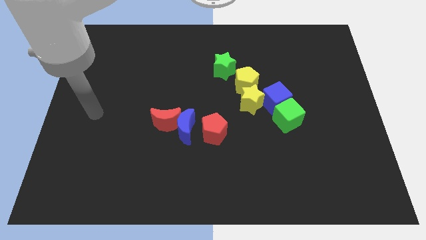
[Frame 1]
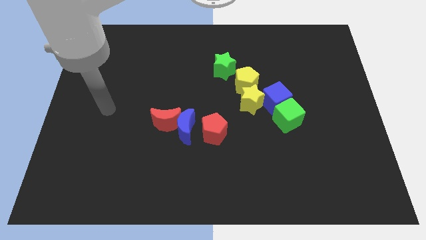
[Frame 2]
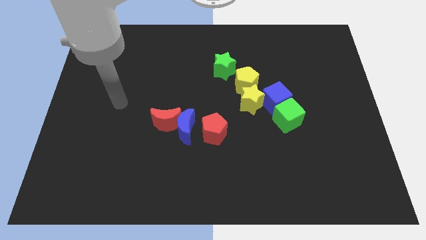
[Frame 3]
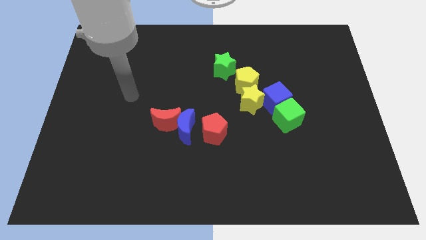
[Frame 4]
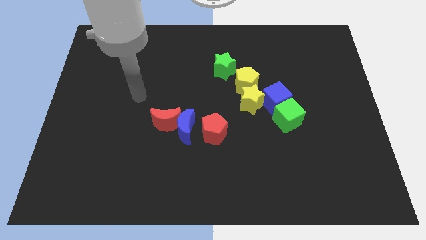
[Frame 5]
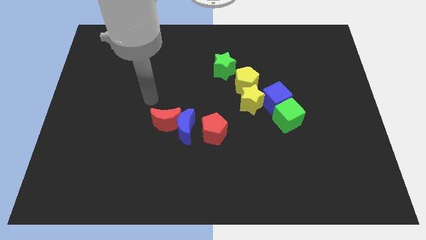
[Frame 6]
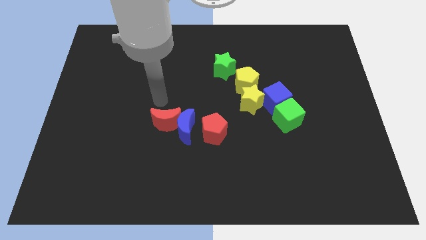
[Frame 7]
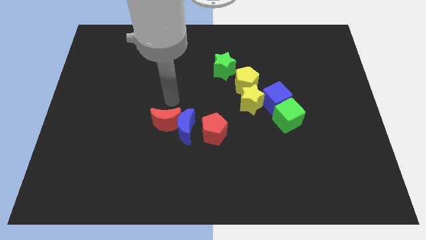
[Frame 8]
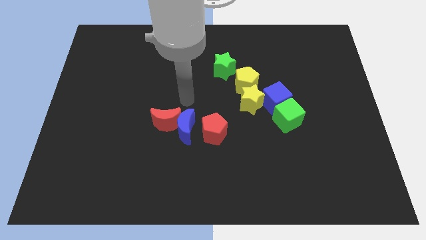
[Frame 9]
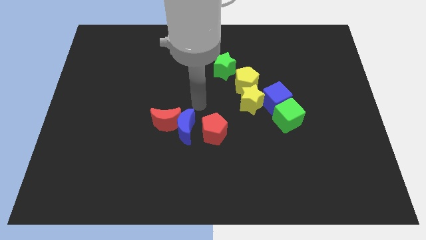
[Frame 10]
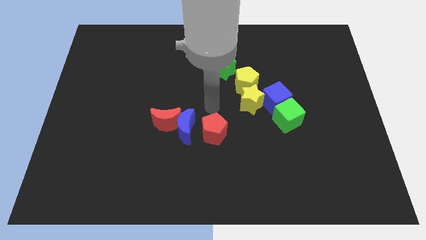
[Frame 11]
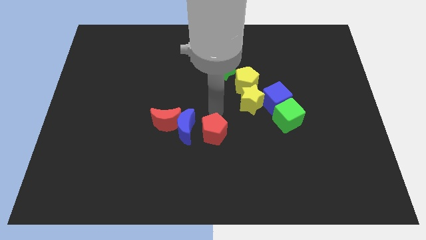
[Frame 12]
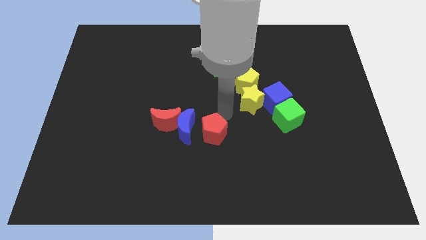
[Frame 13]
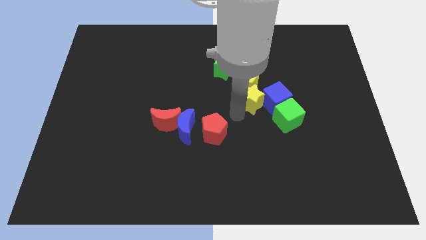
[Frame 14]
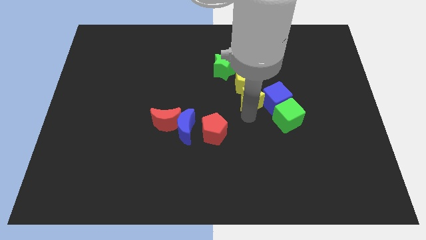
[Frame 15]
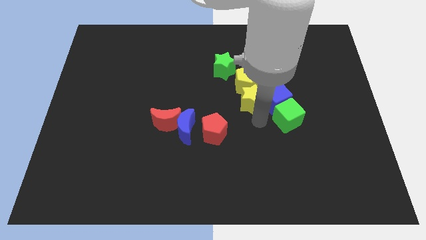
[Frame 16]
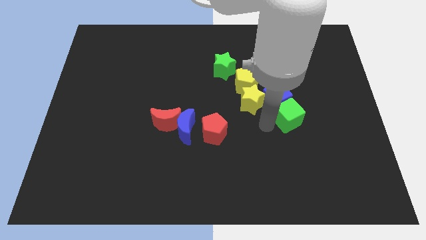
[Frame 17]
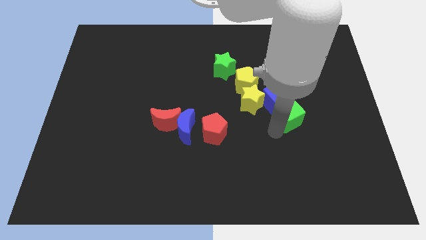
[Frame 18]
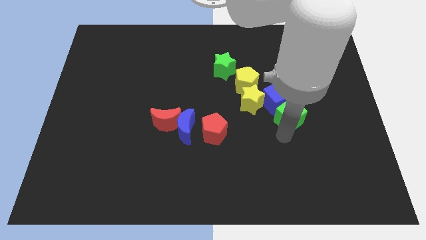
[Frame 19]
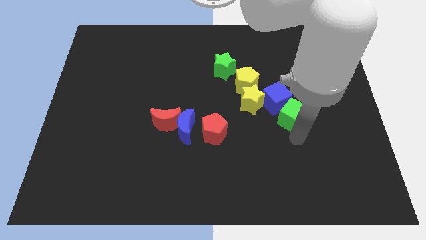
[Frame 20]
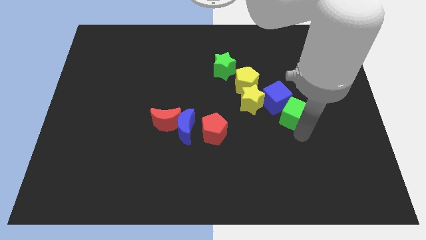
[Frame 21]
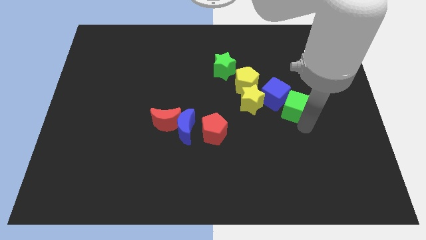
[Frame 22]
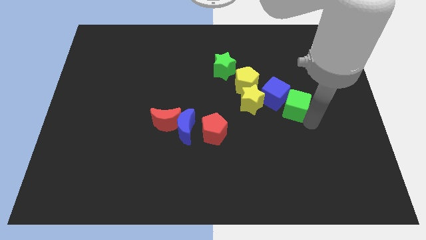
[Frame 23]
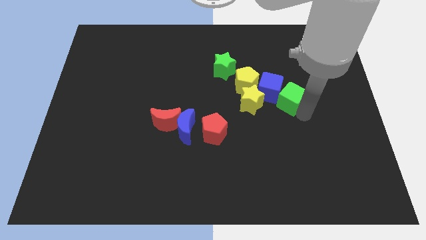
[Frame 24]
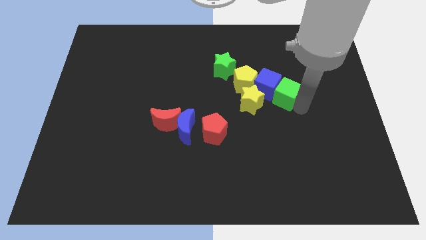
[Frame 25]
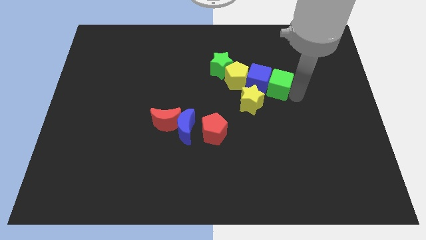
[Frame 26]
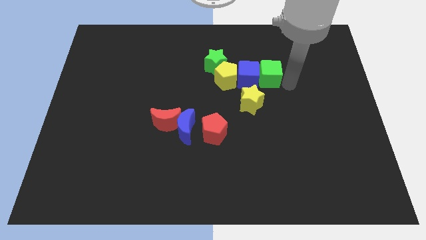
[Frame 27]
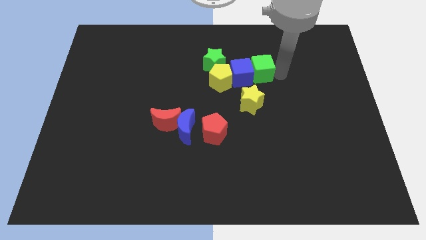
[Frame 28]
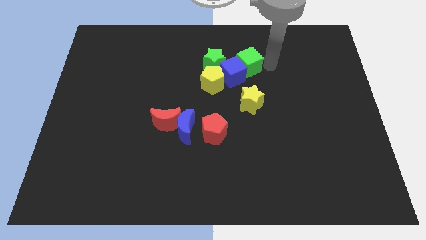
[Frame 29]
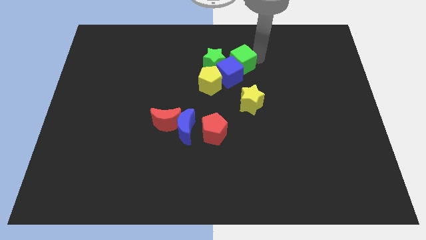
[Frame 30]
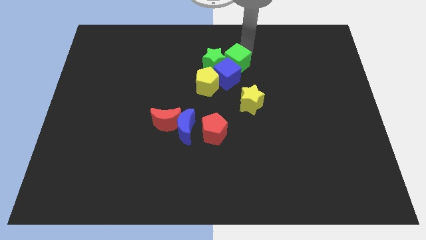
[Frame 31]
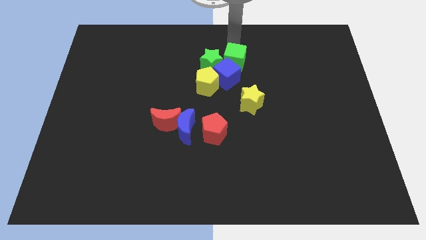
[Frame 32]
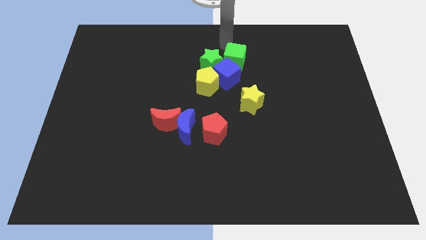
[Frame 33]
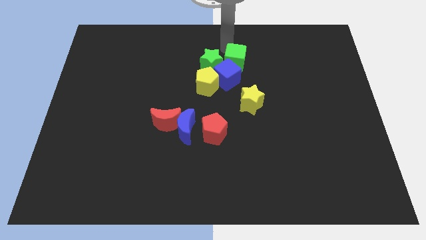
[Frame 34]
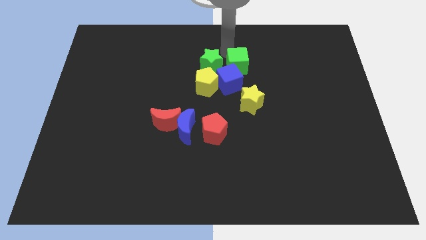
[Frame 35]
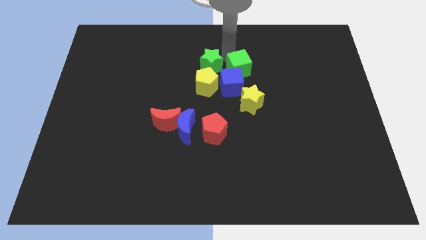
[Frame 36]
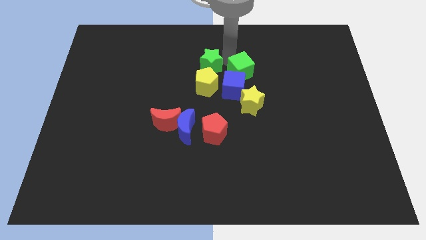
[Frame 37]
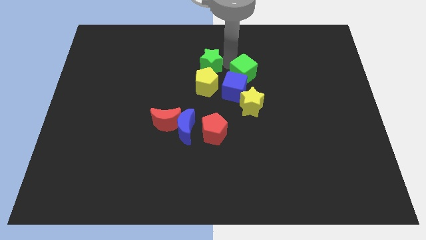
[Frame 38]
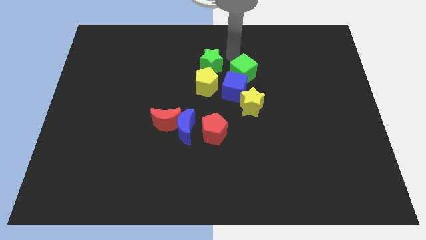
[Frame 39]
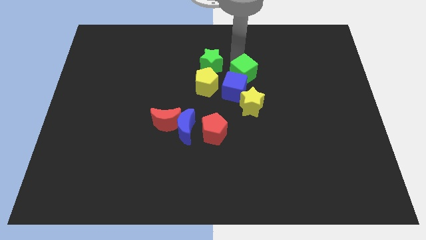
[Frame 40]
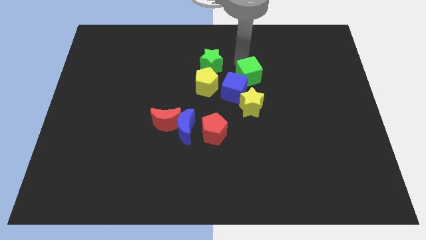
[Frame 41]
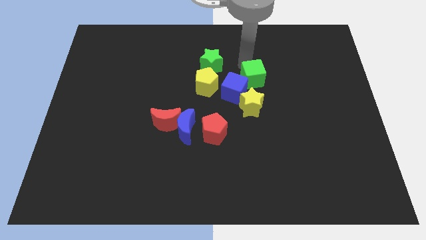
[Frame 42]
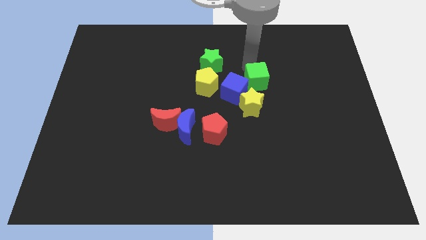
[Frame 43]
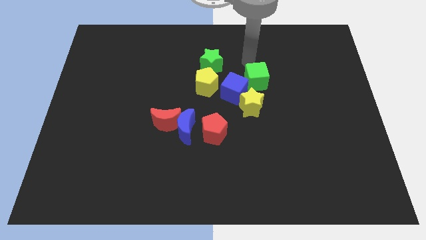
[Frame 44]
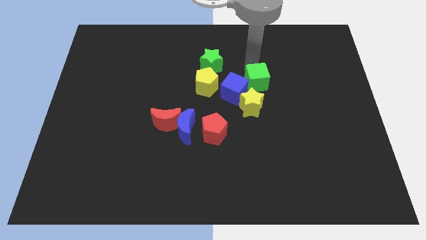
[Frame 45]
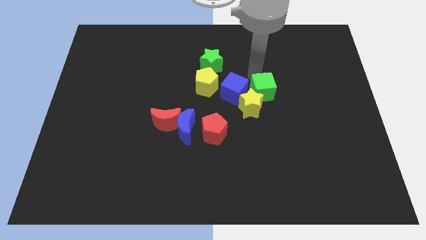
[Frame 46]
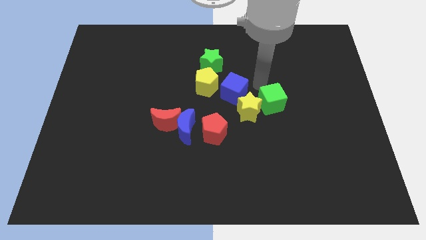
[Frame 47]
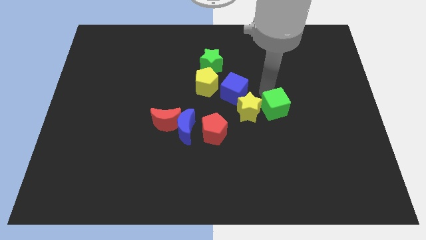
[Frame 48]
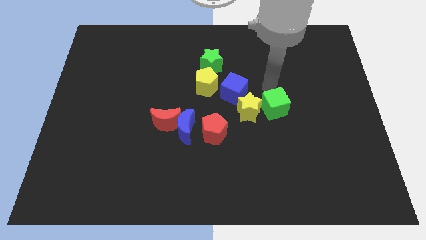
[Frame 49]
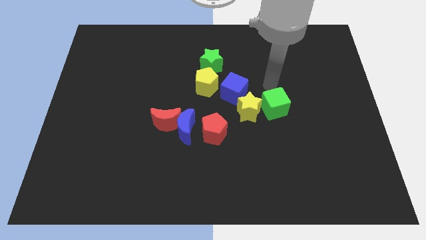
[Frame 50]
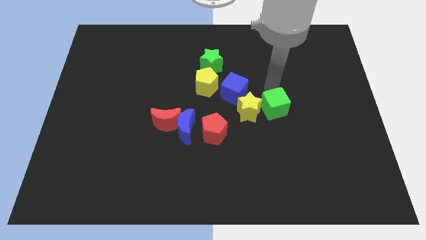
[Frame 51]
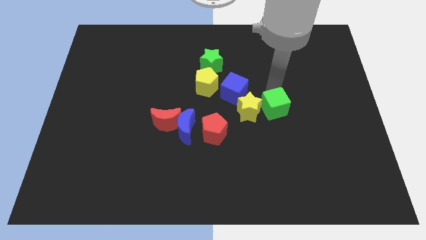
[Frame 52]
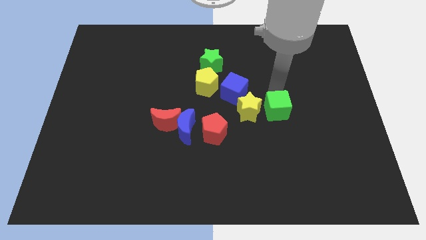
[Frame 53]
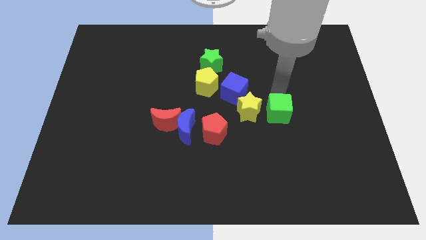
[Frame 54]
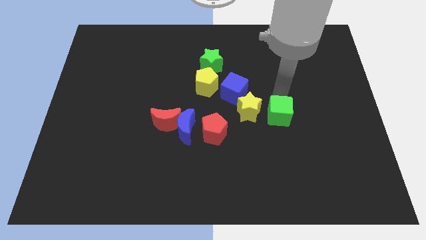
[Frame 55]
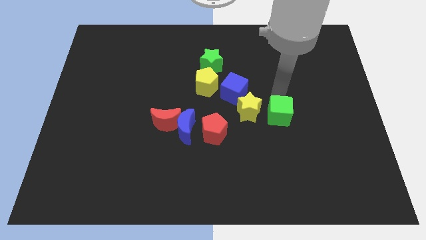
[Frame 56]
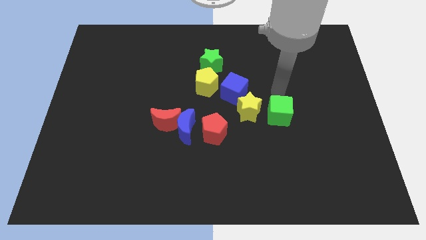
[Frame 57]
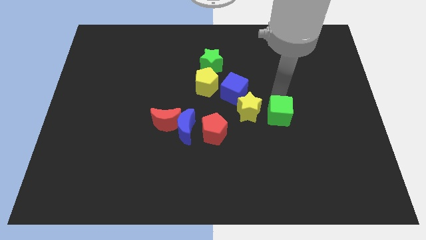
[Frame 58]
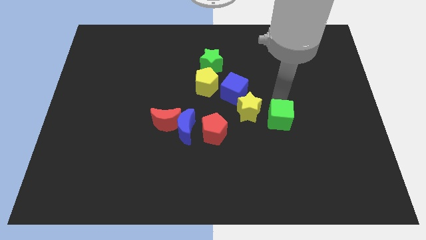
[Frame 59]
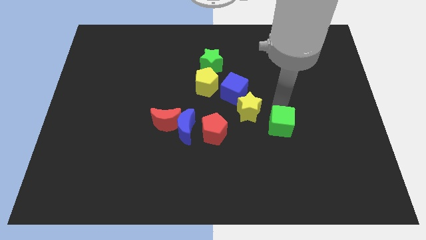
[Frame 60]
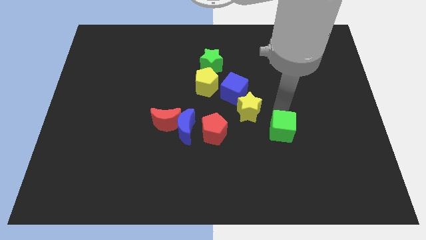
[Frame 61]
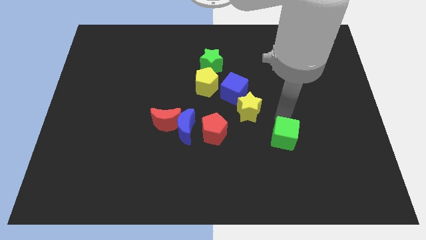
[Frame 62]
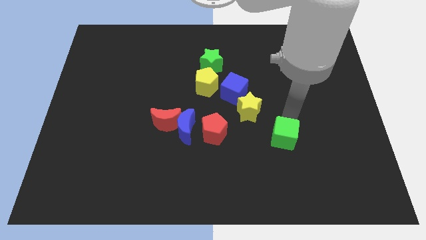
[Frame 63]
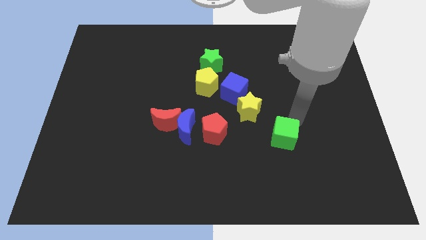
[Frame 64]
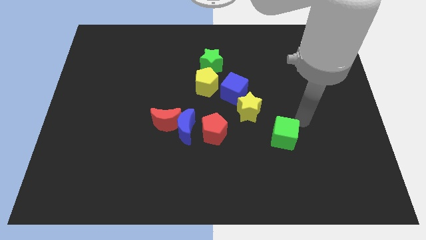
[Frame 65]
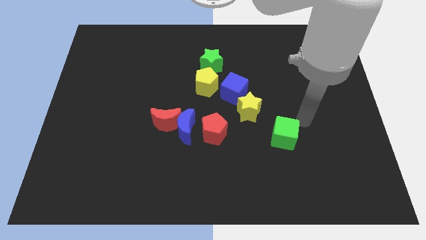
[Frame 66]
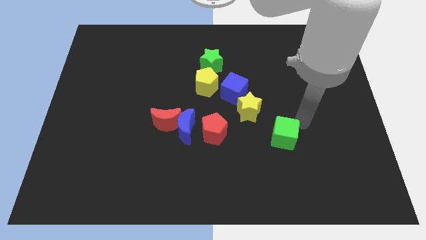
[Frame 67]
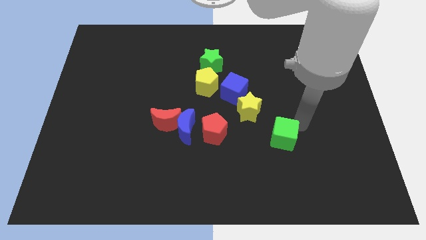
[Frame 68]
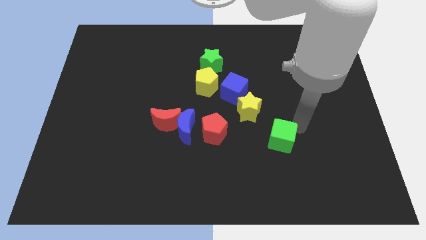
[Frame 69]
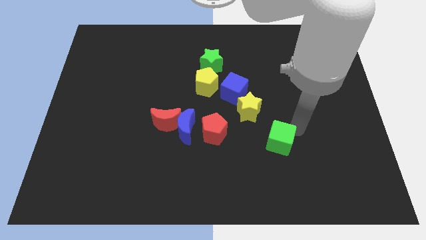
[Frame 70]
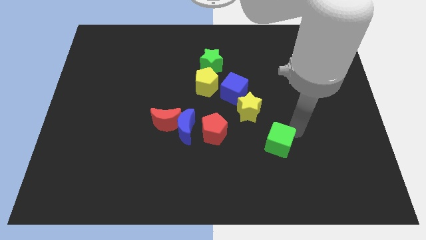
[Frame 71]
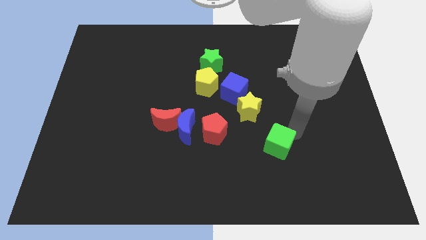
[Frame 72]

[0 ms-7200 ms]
move the green cube a bit downwards and left diagonally

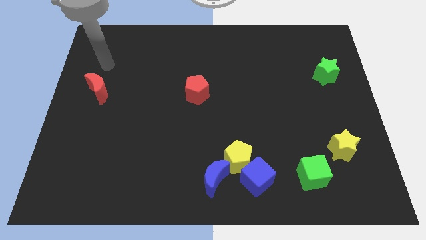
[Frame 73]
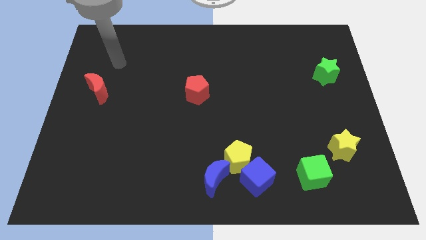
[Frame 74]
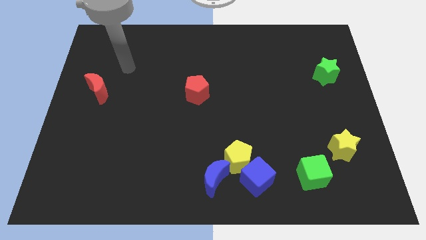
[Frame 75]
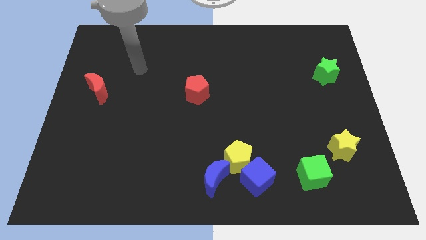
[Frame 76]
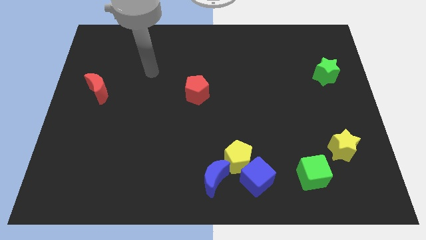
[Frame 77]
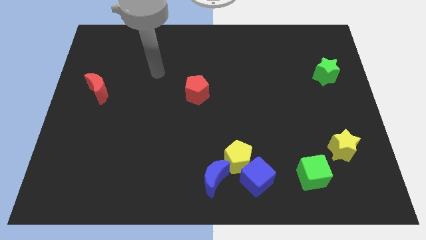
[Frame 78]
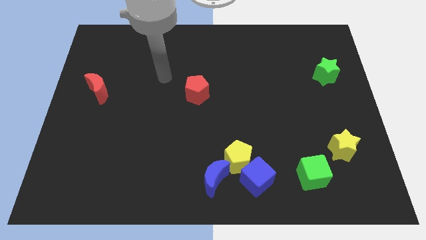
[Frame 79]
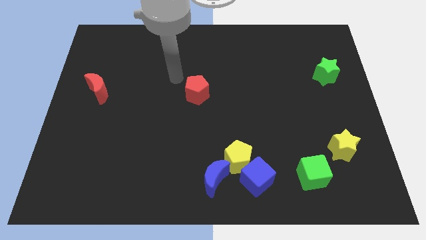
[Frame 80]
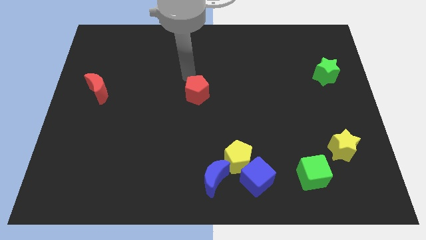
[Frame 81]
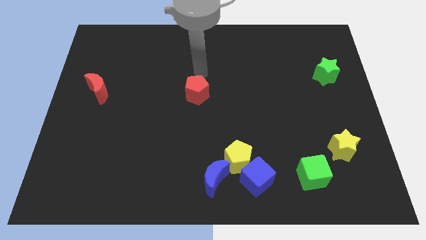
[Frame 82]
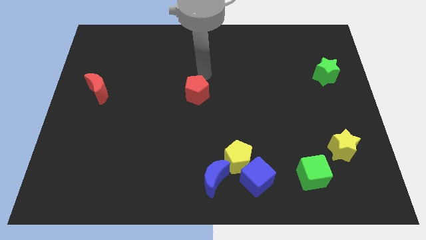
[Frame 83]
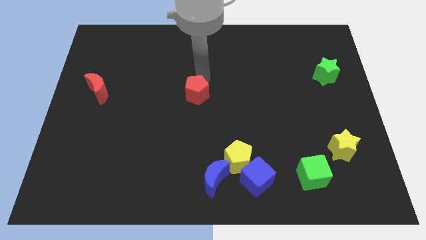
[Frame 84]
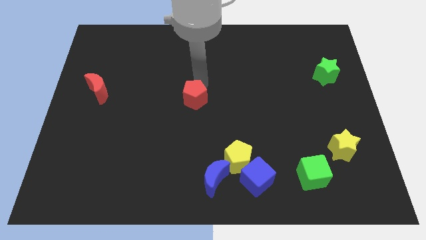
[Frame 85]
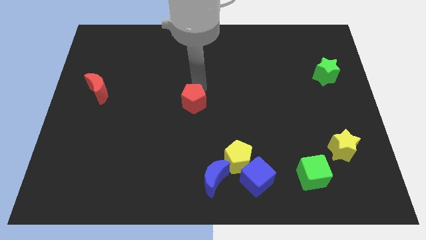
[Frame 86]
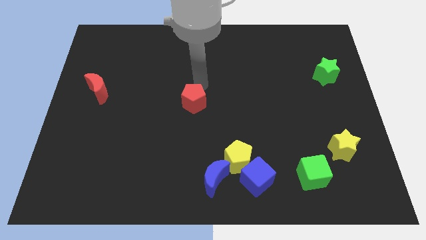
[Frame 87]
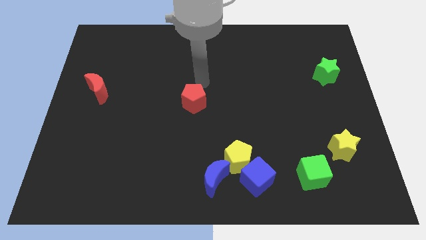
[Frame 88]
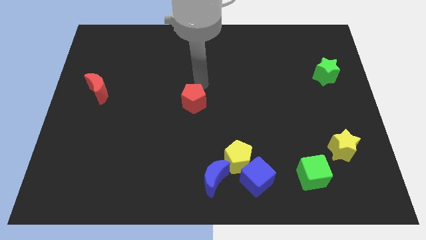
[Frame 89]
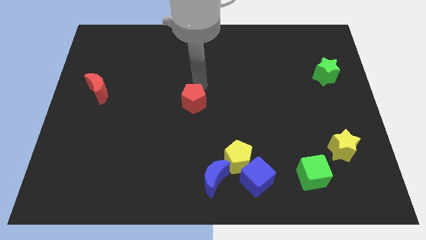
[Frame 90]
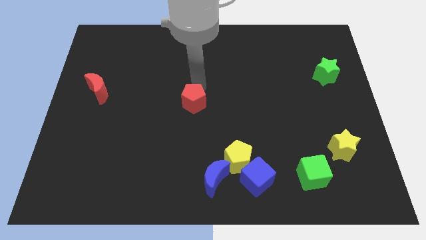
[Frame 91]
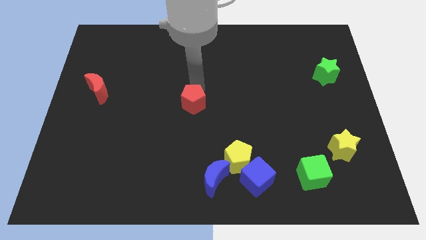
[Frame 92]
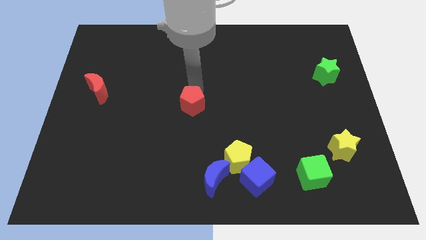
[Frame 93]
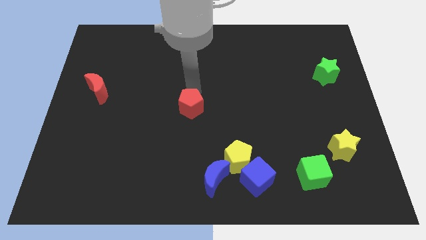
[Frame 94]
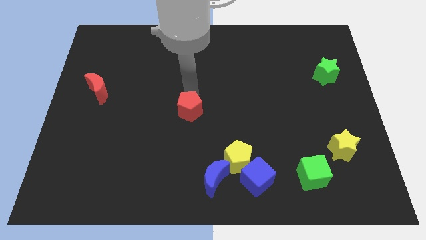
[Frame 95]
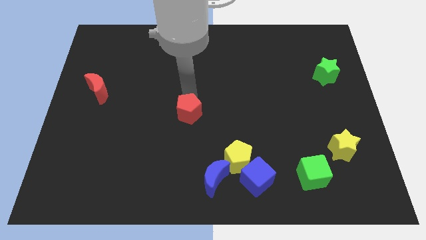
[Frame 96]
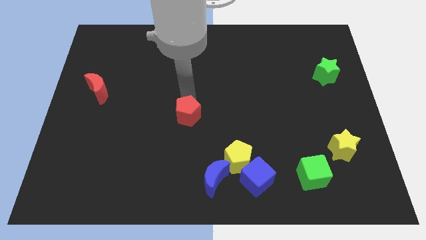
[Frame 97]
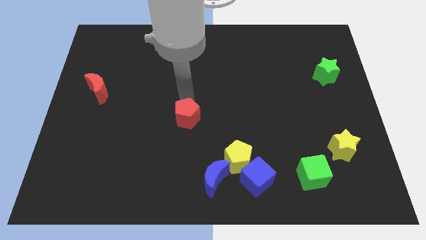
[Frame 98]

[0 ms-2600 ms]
move the red pentagon downwards a little bit
